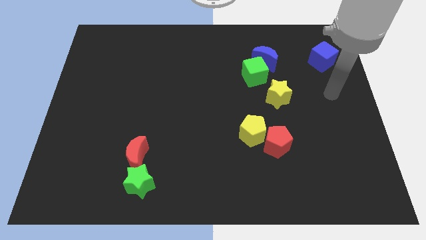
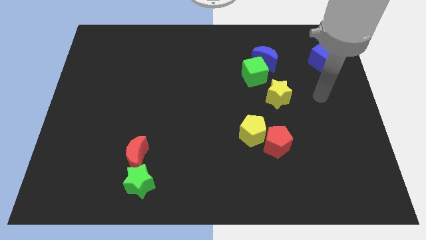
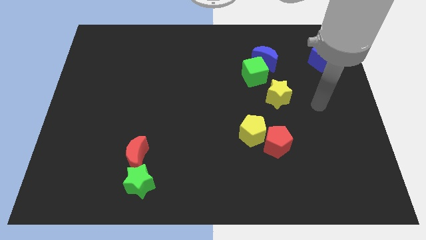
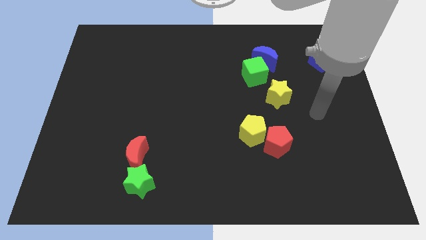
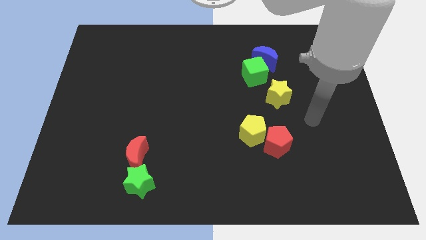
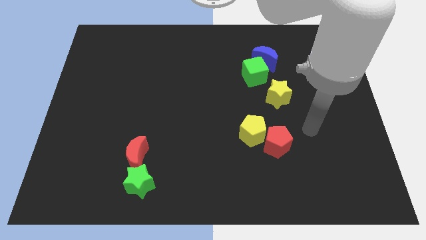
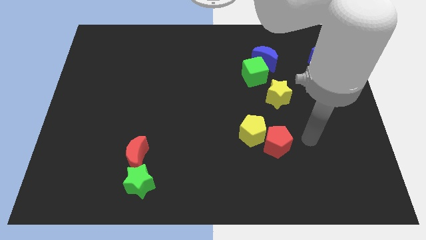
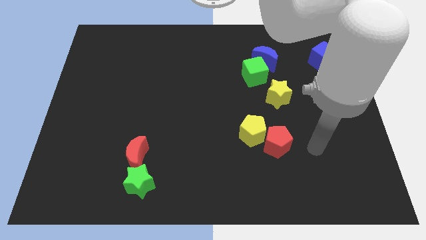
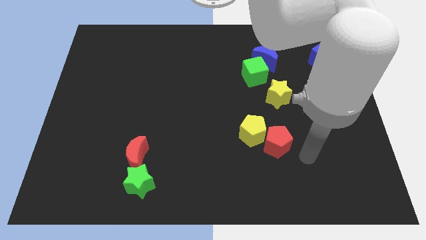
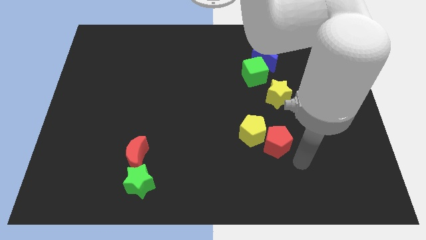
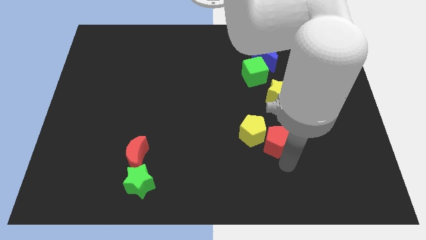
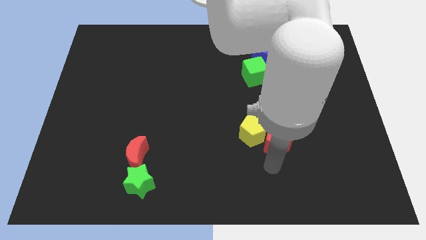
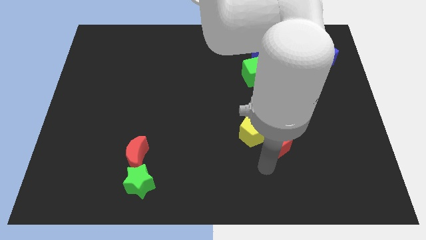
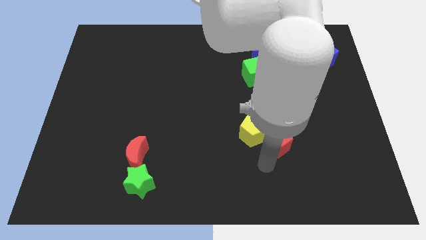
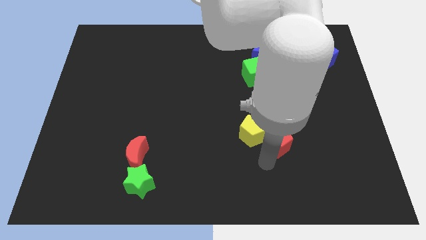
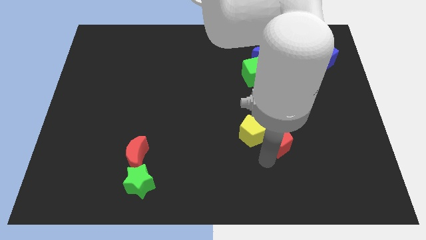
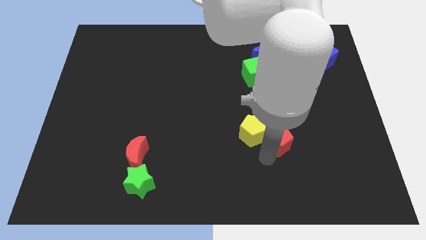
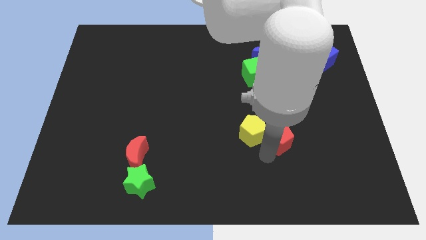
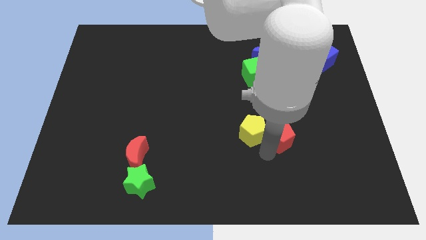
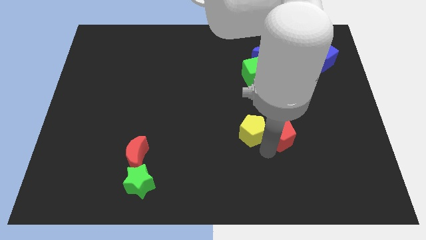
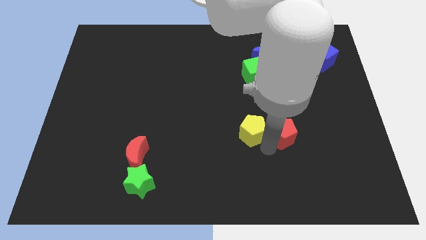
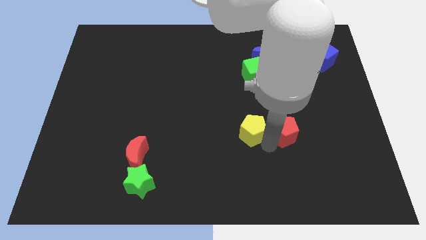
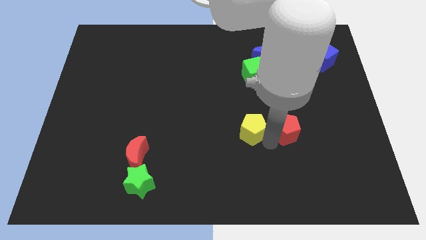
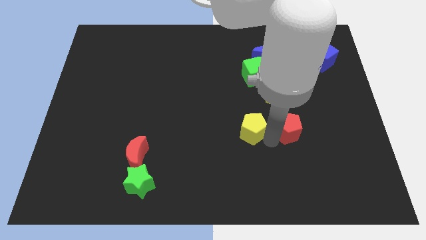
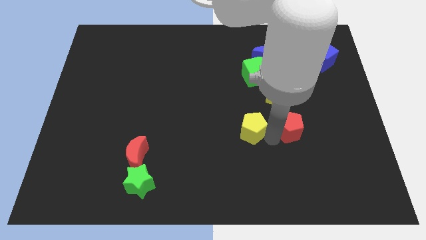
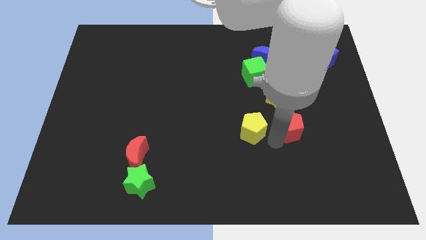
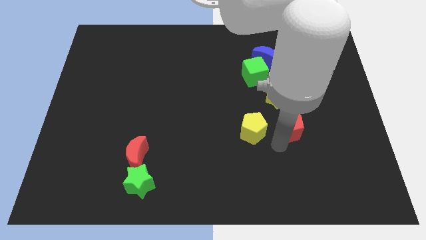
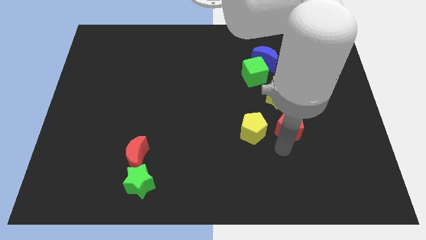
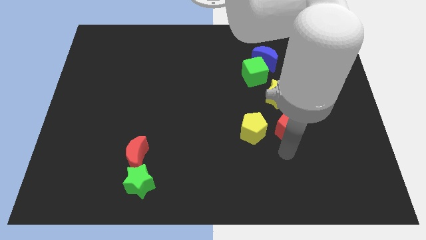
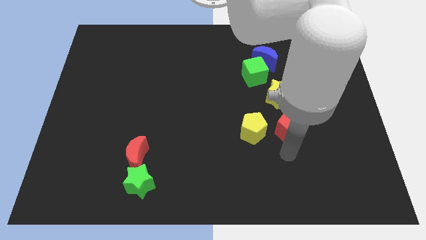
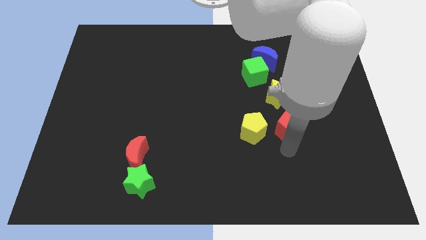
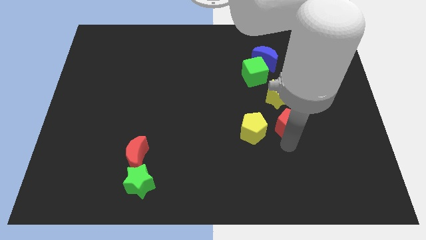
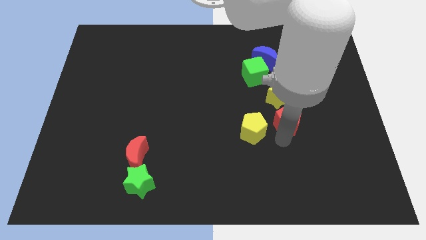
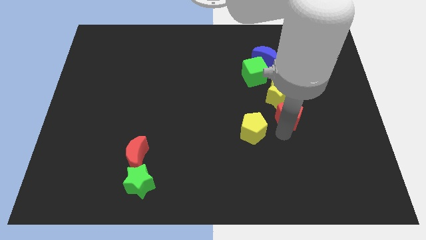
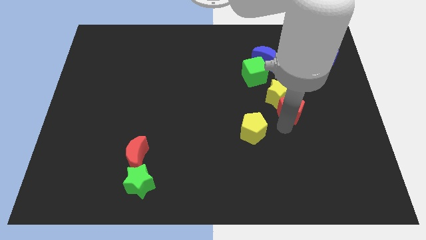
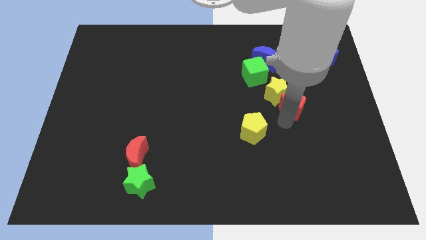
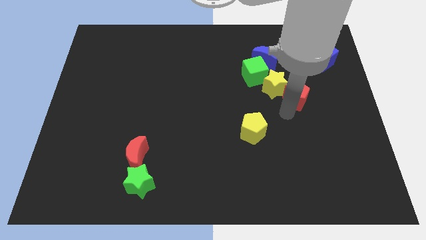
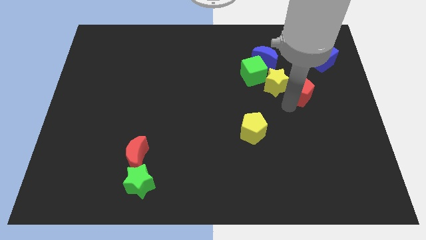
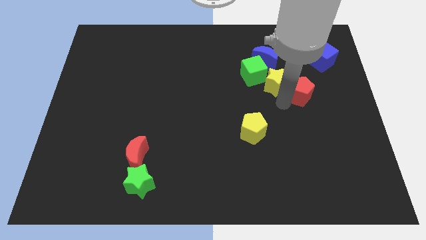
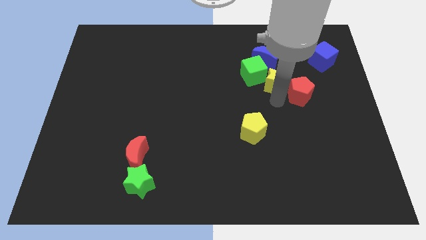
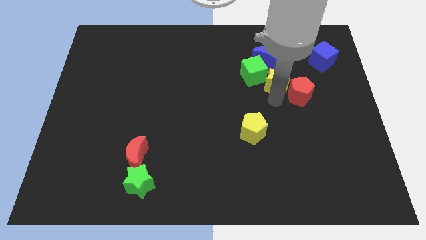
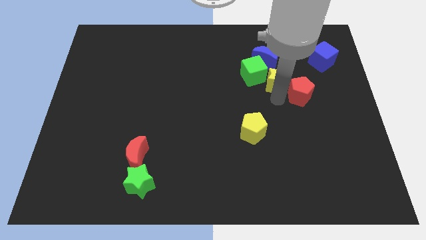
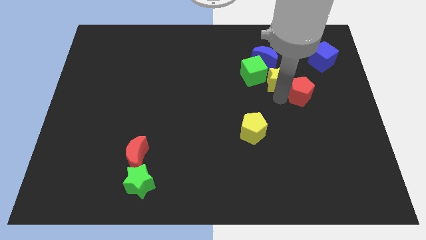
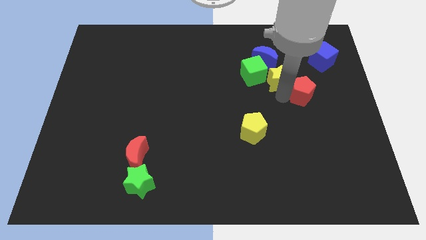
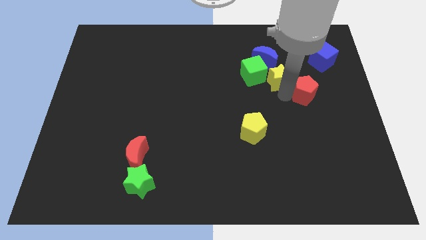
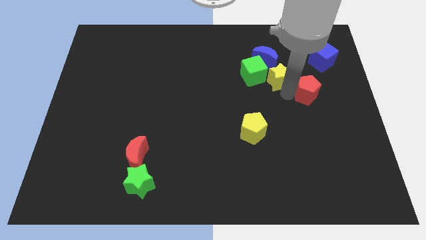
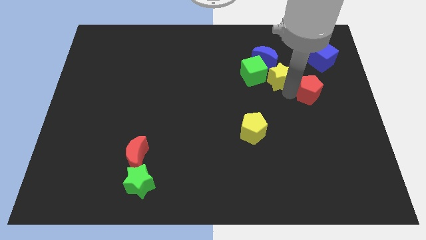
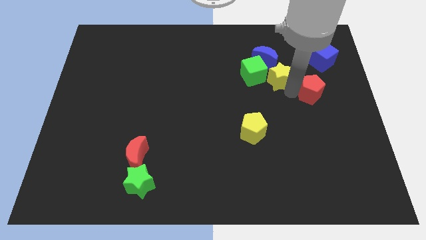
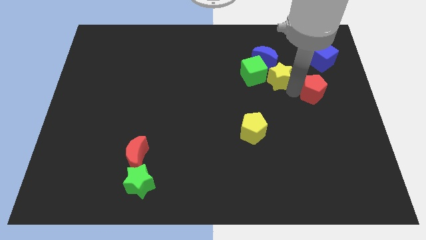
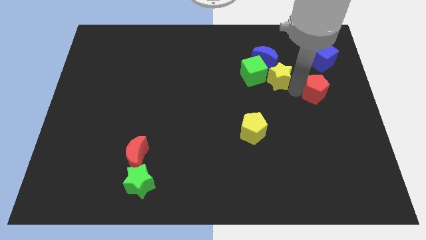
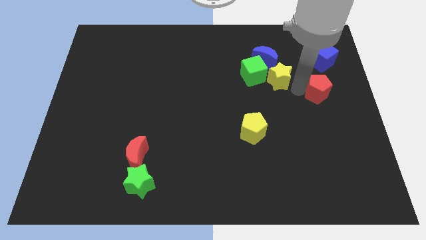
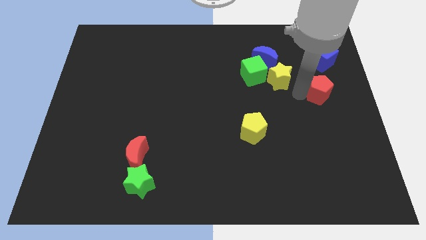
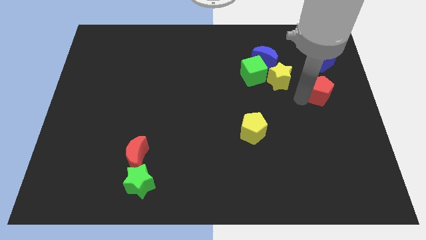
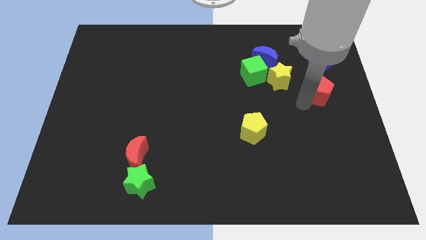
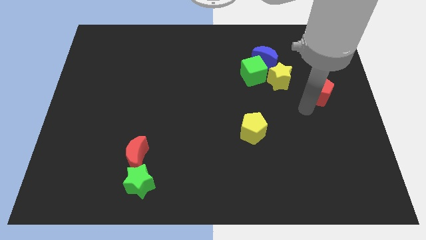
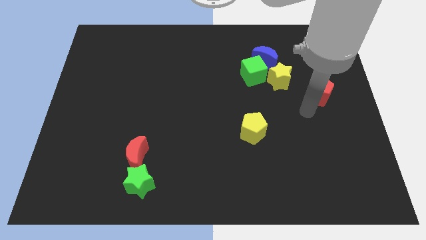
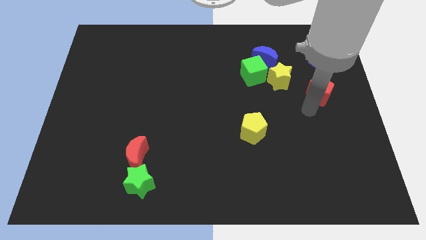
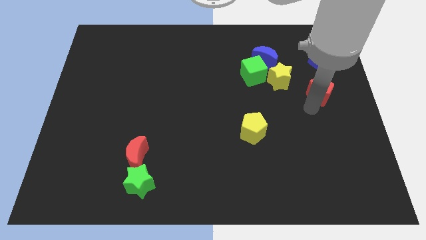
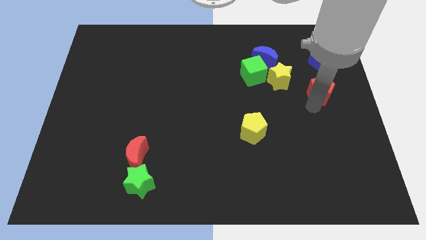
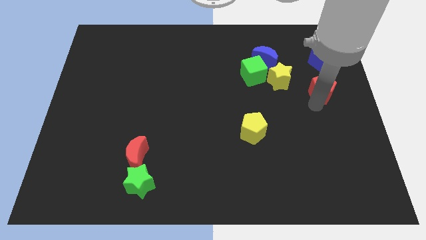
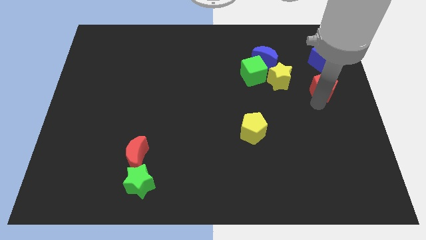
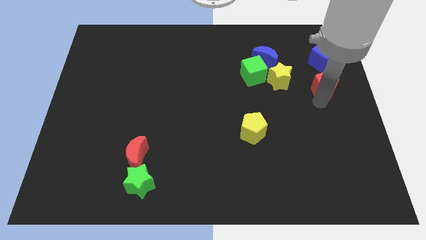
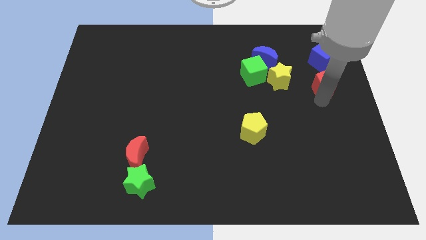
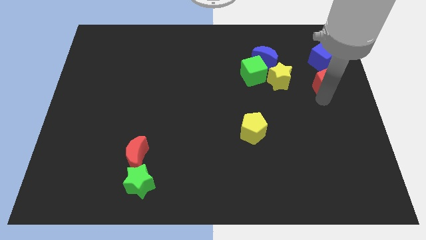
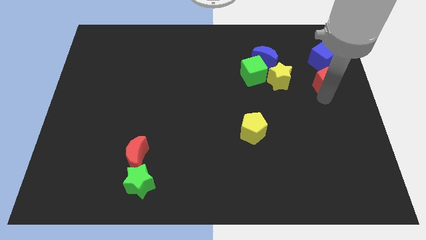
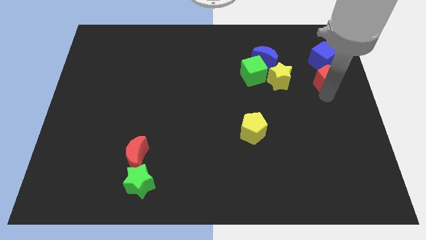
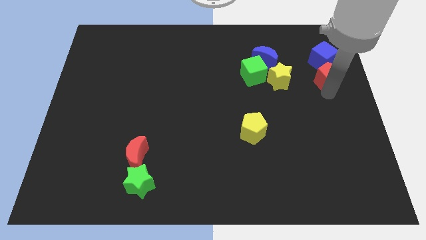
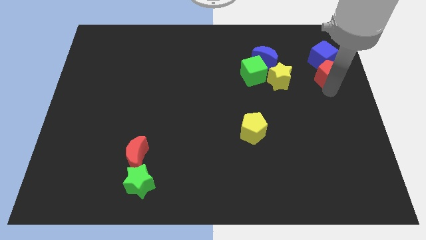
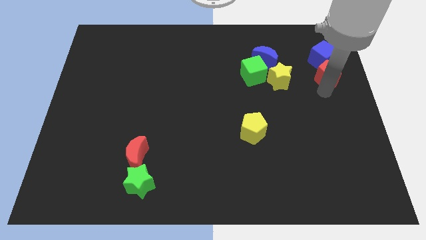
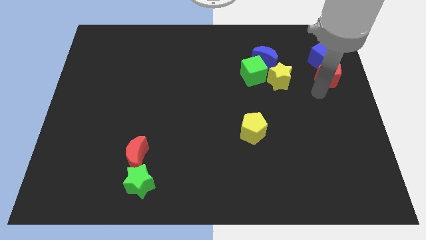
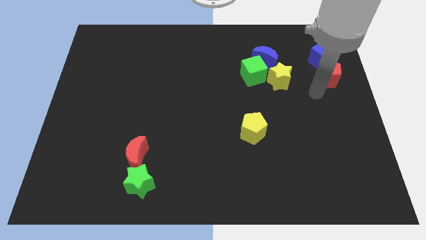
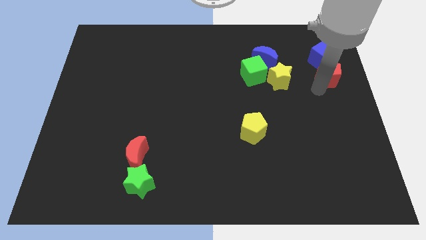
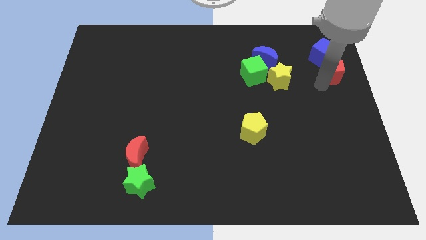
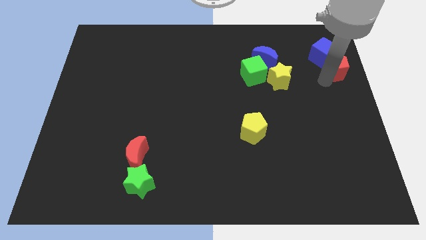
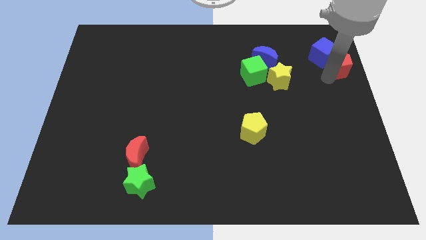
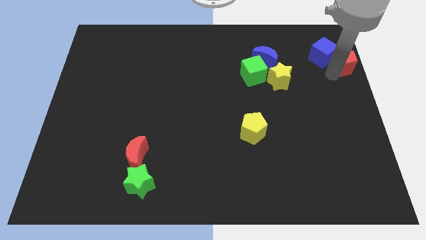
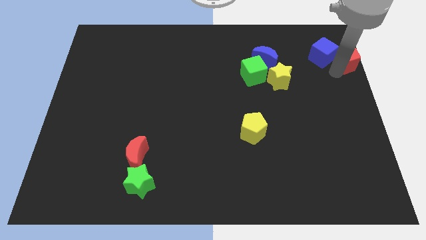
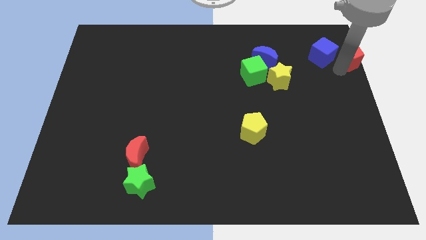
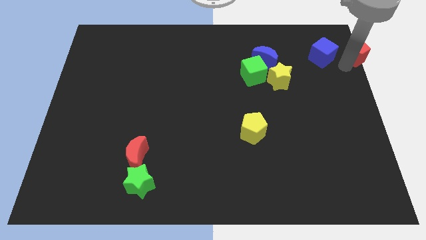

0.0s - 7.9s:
slide the red pentagon to the upper right corner
